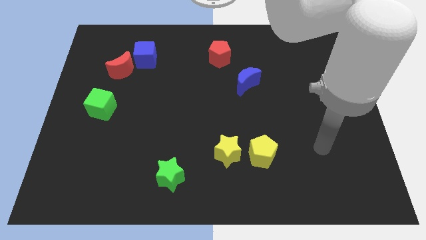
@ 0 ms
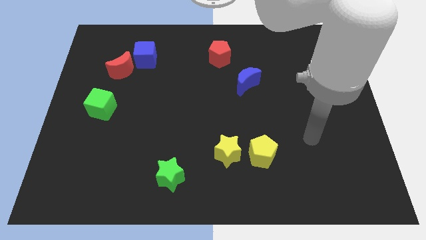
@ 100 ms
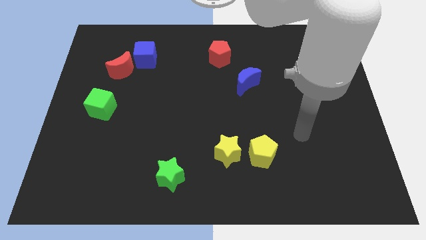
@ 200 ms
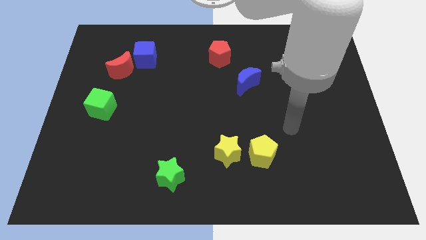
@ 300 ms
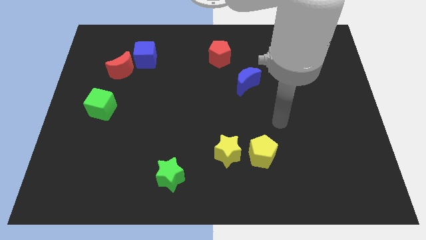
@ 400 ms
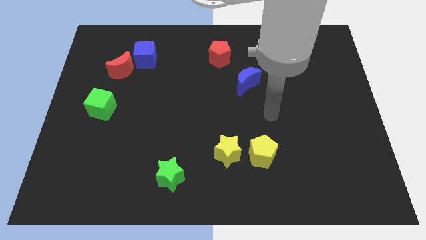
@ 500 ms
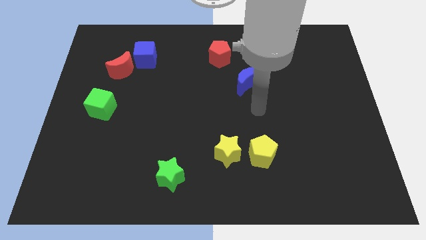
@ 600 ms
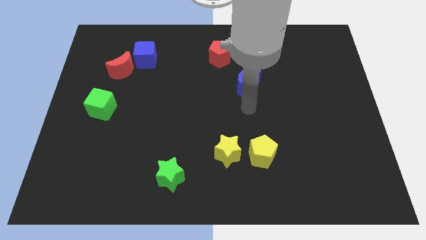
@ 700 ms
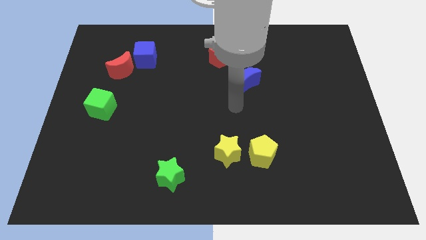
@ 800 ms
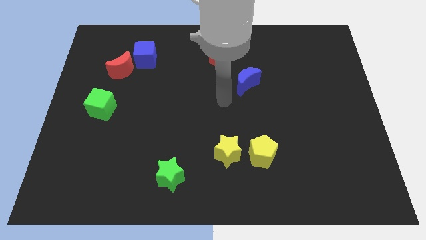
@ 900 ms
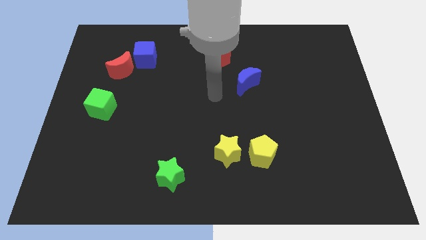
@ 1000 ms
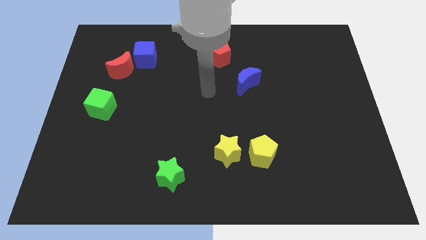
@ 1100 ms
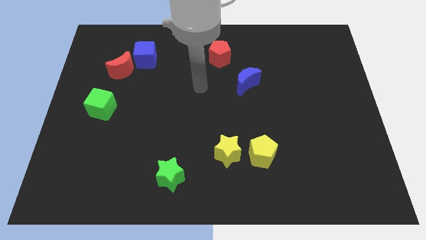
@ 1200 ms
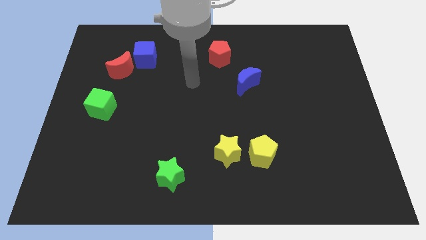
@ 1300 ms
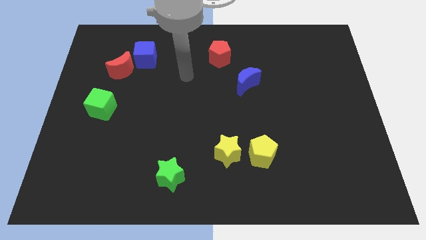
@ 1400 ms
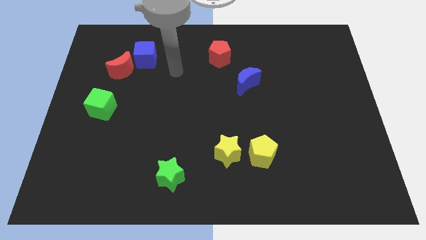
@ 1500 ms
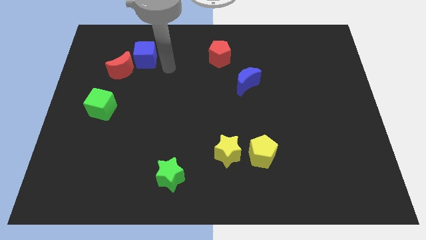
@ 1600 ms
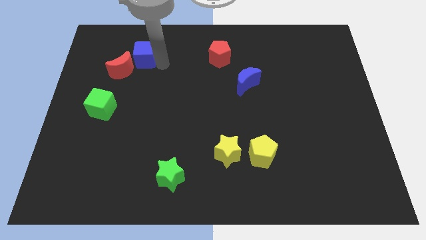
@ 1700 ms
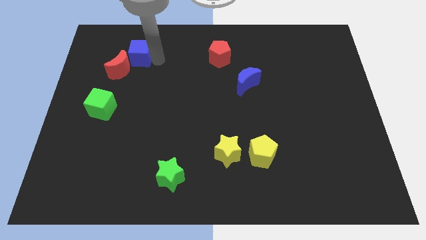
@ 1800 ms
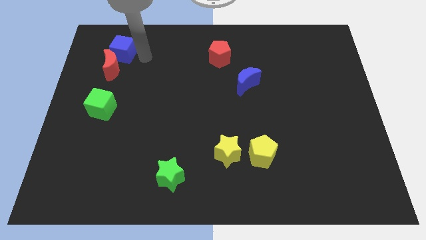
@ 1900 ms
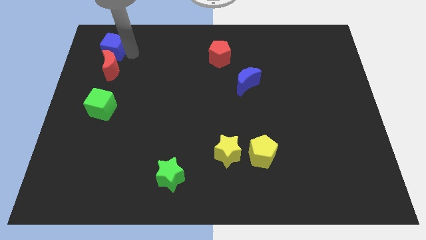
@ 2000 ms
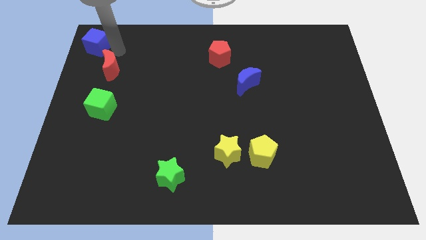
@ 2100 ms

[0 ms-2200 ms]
pull the red moon apart from the blue cube

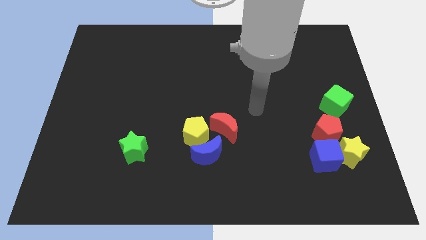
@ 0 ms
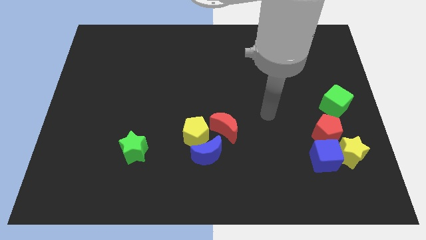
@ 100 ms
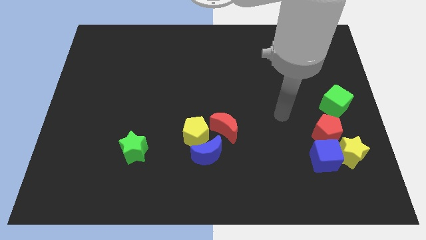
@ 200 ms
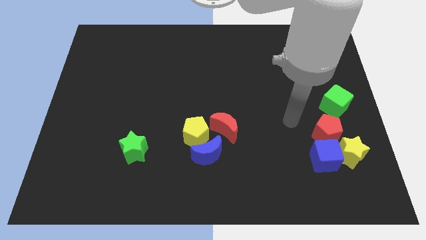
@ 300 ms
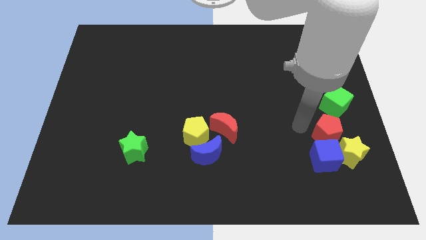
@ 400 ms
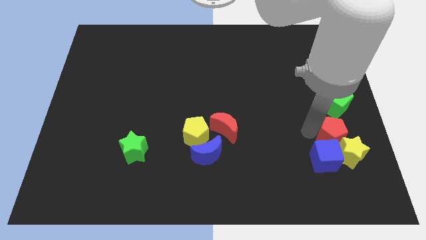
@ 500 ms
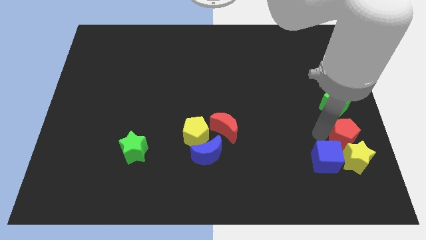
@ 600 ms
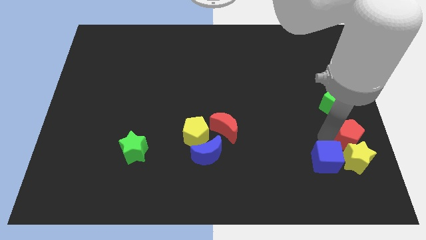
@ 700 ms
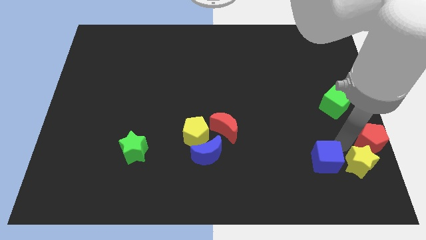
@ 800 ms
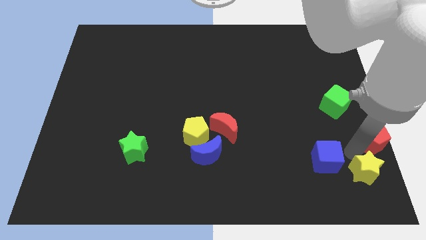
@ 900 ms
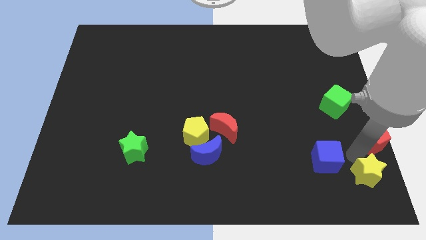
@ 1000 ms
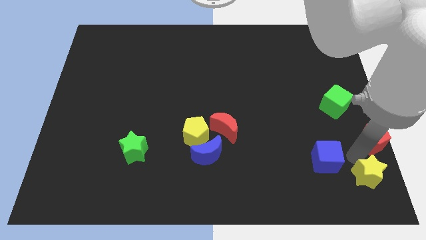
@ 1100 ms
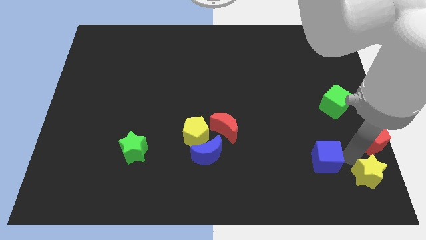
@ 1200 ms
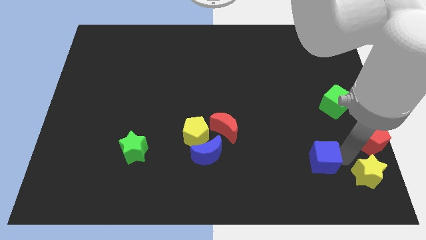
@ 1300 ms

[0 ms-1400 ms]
separate the blue cube from the yellow star and red pentagon

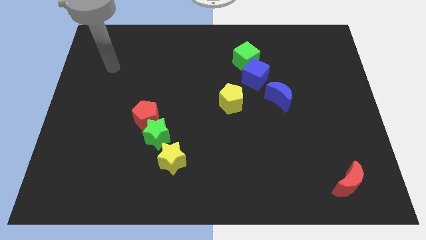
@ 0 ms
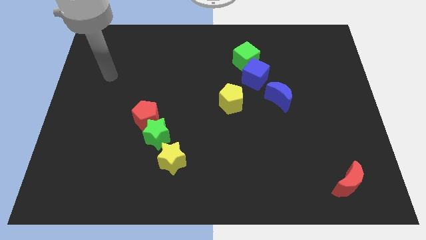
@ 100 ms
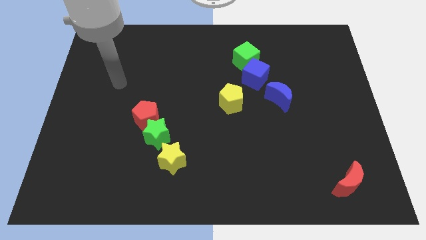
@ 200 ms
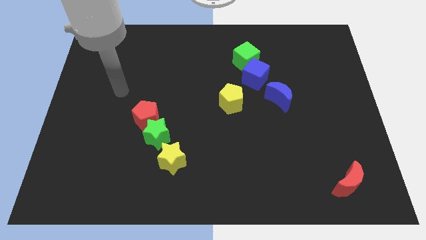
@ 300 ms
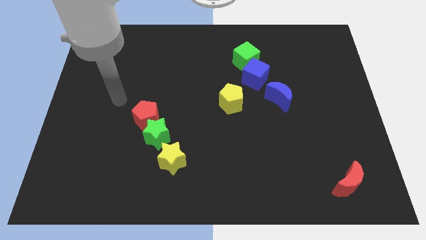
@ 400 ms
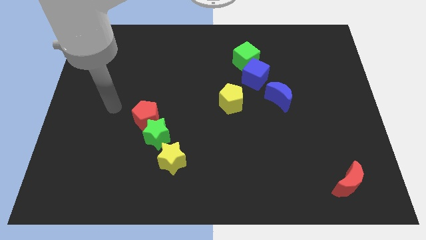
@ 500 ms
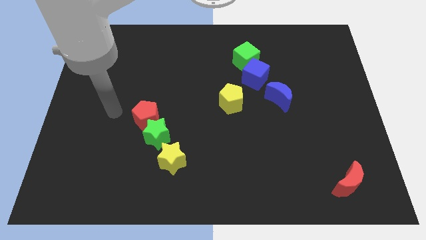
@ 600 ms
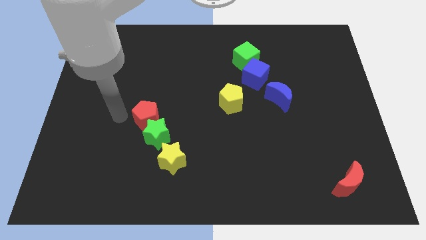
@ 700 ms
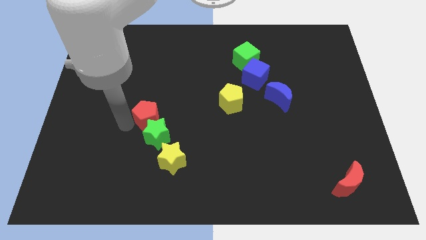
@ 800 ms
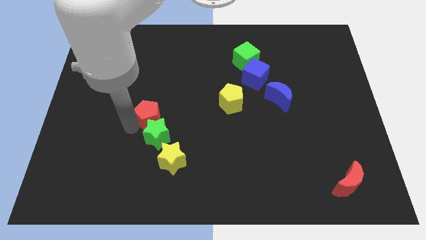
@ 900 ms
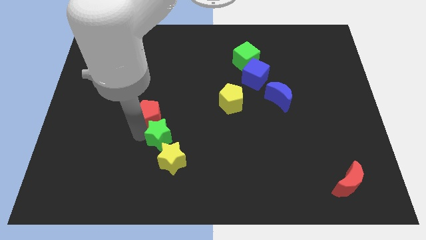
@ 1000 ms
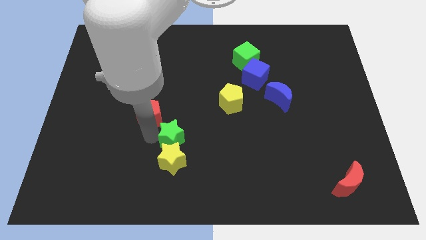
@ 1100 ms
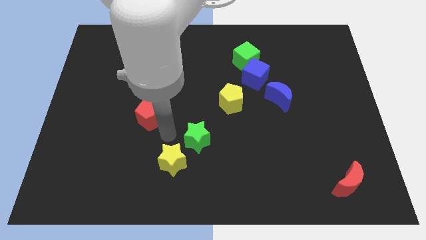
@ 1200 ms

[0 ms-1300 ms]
move the red pentagon away from the green star

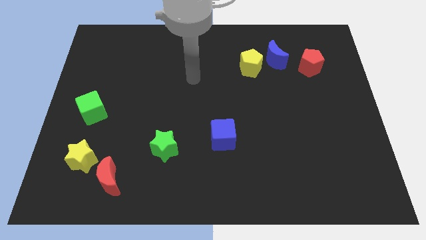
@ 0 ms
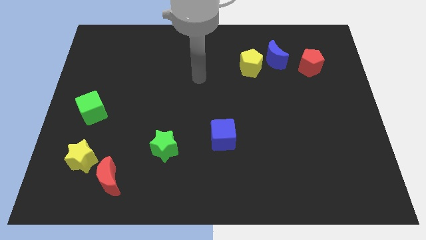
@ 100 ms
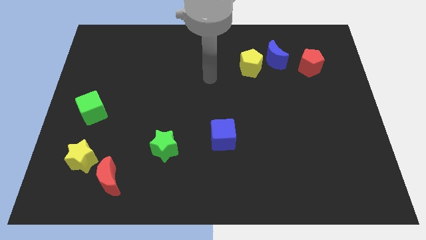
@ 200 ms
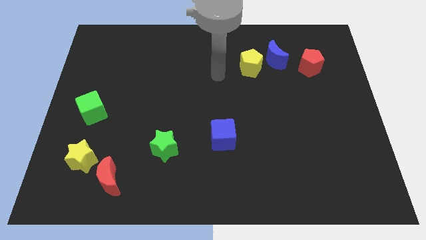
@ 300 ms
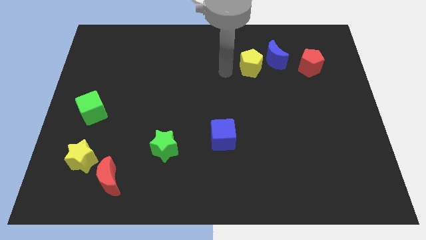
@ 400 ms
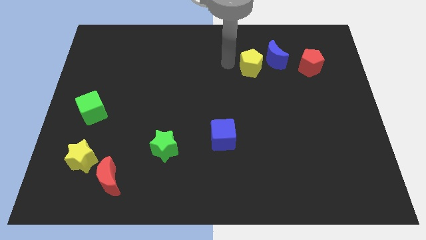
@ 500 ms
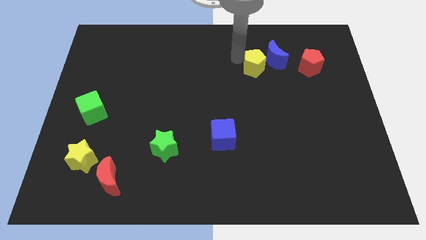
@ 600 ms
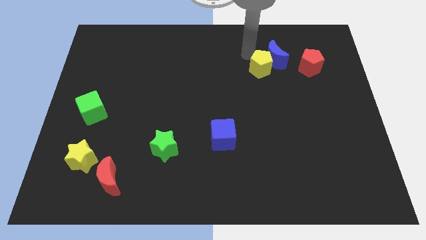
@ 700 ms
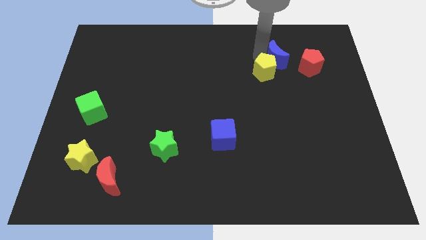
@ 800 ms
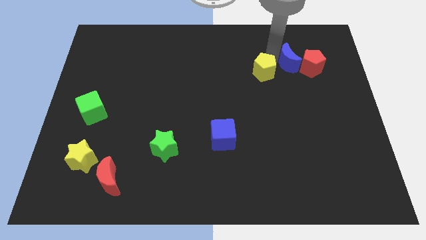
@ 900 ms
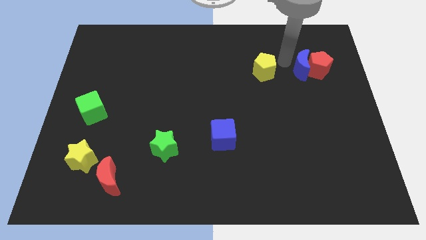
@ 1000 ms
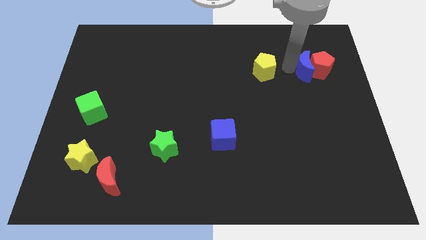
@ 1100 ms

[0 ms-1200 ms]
separate the yellow pentagon from the blue moon

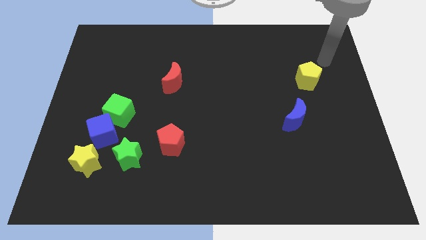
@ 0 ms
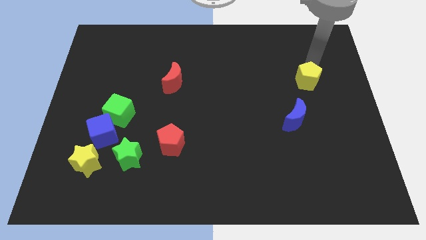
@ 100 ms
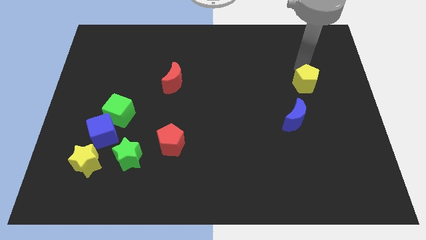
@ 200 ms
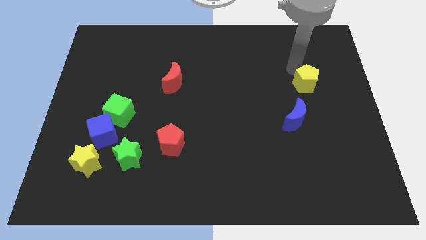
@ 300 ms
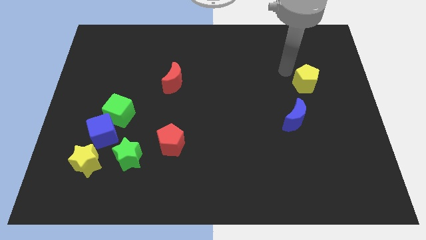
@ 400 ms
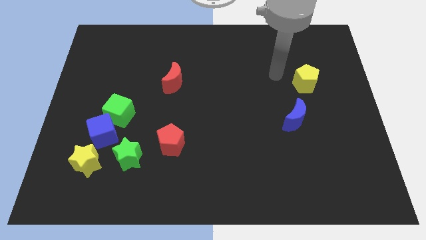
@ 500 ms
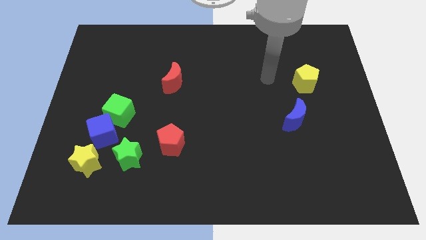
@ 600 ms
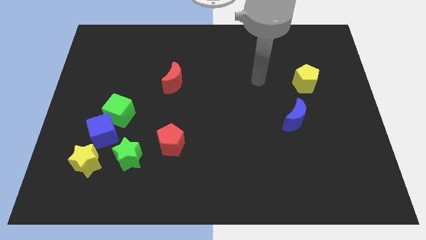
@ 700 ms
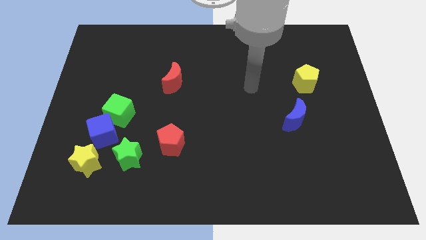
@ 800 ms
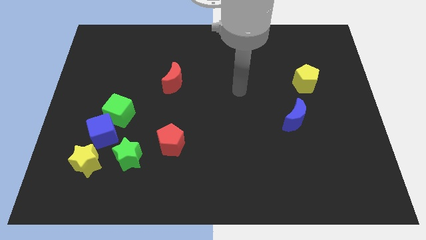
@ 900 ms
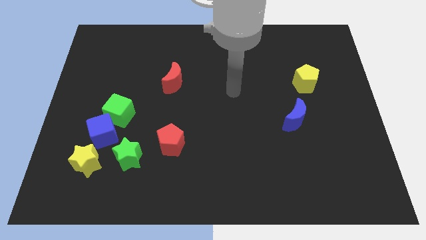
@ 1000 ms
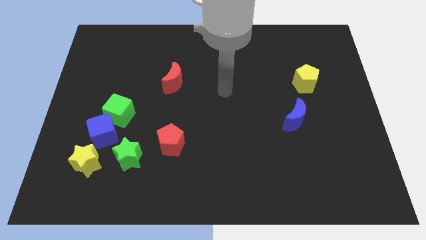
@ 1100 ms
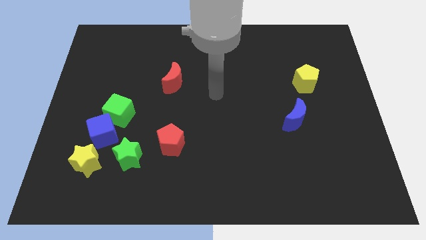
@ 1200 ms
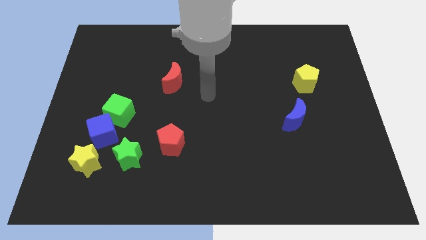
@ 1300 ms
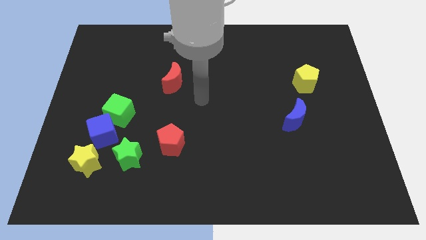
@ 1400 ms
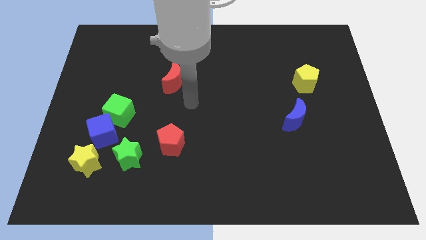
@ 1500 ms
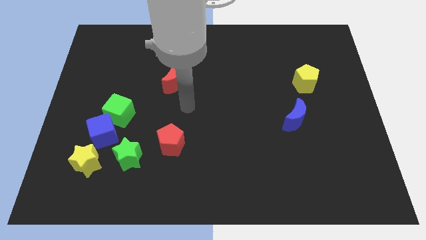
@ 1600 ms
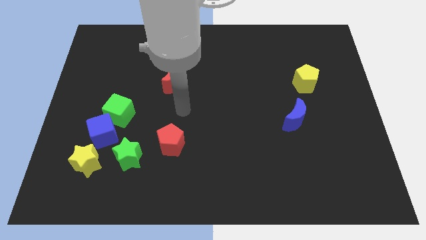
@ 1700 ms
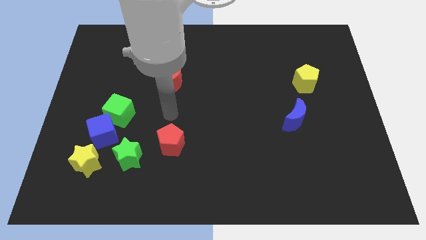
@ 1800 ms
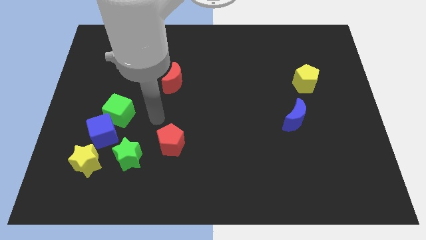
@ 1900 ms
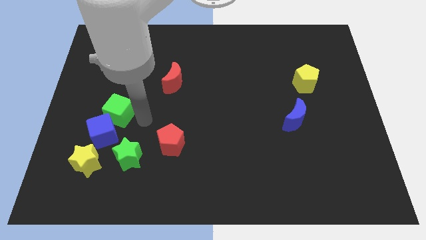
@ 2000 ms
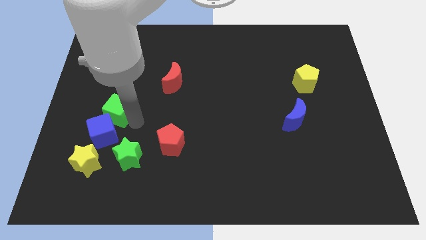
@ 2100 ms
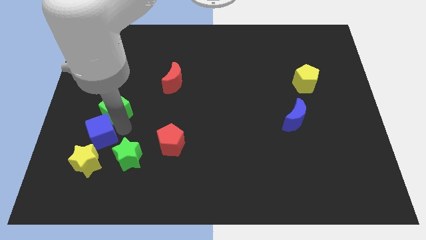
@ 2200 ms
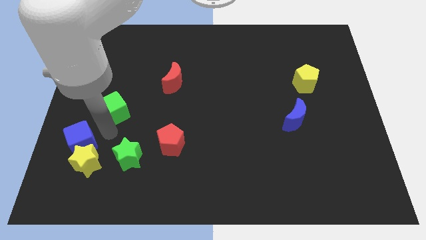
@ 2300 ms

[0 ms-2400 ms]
pull the green cube apart from the blue cube

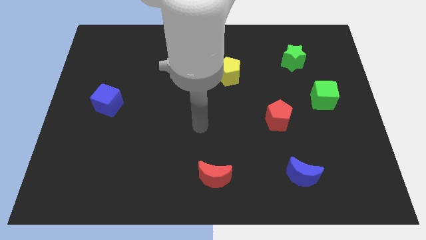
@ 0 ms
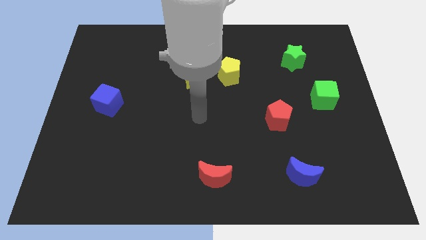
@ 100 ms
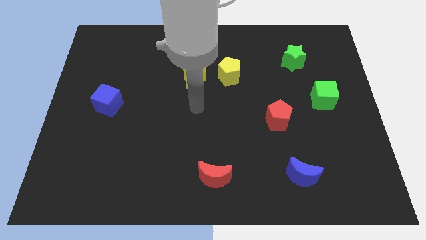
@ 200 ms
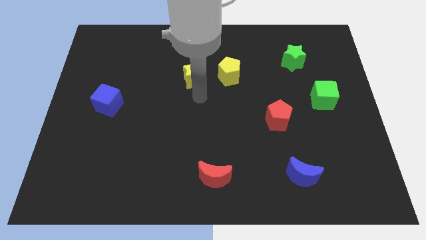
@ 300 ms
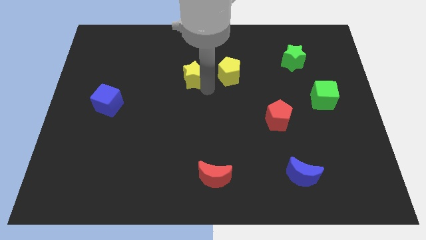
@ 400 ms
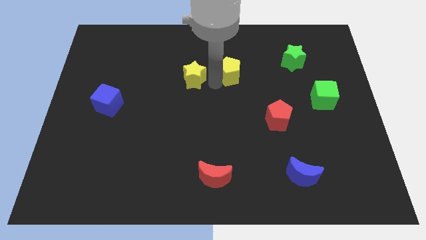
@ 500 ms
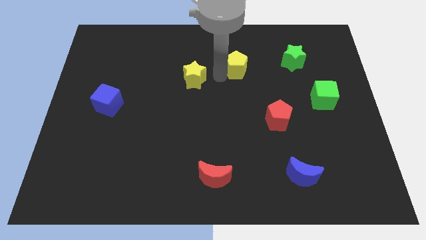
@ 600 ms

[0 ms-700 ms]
separate the yellow star from the yellow pentagon
